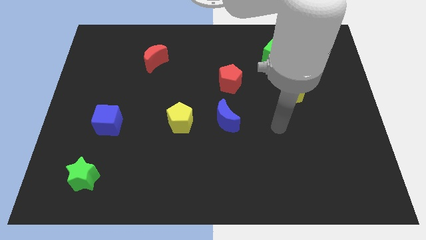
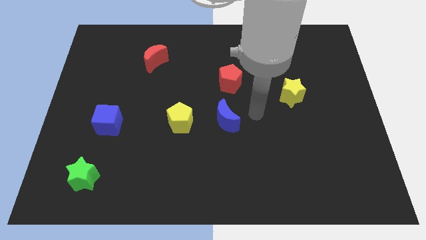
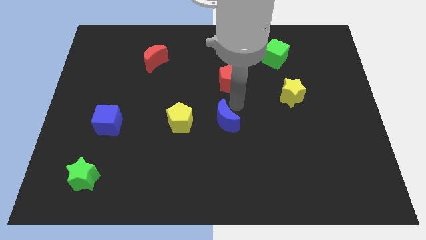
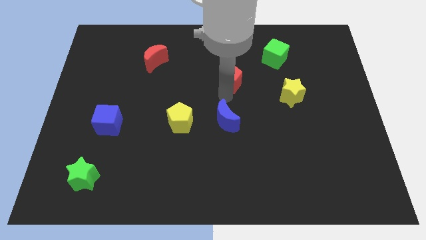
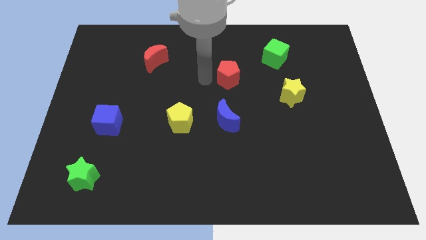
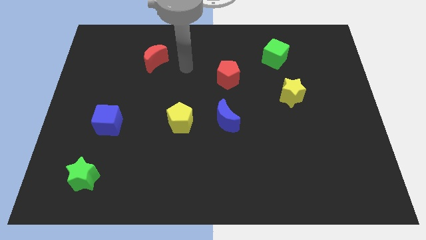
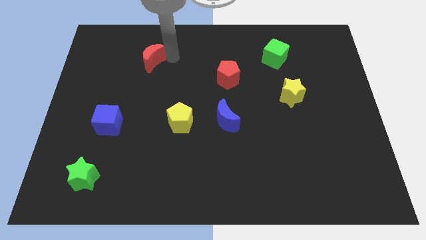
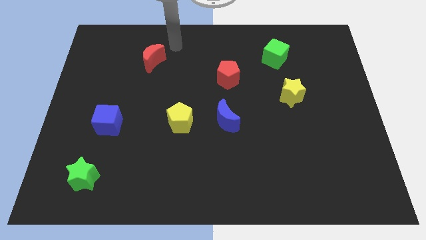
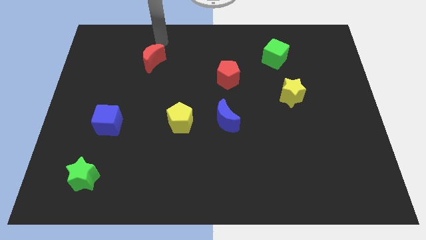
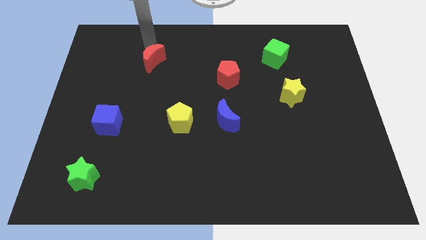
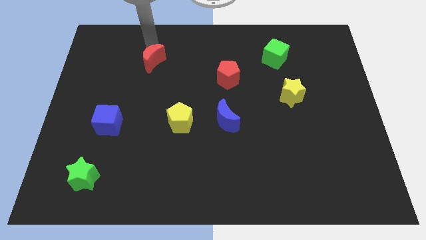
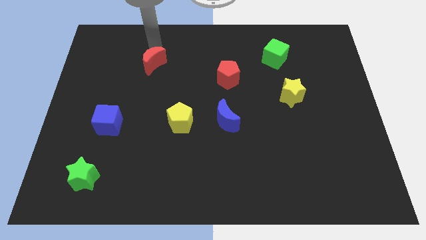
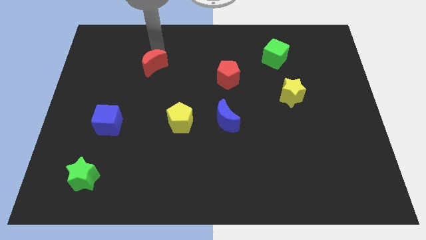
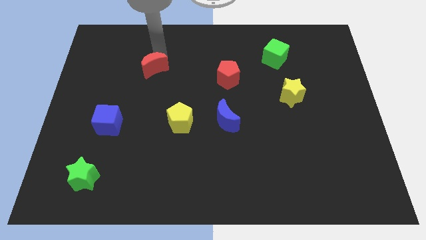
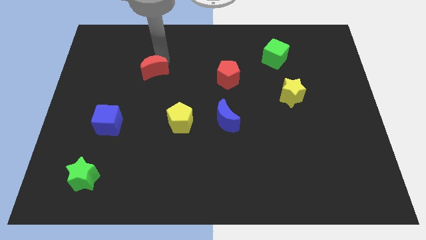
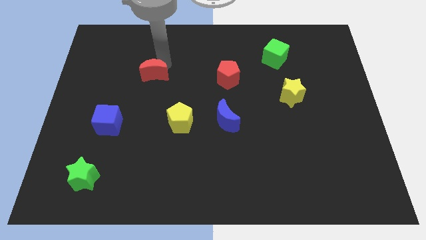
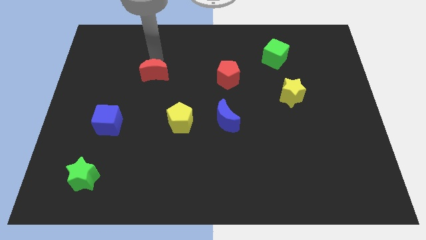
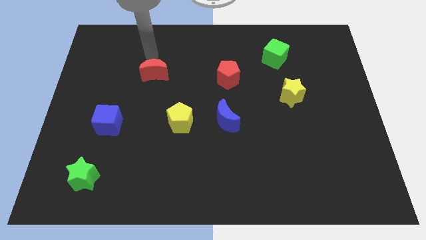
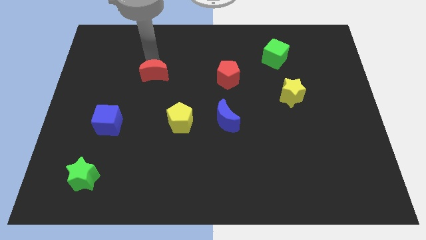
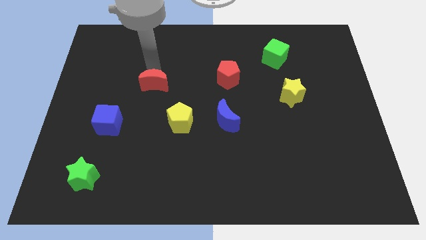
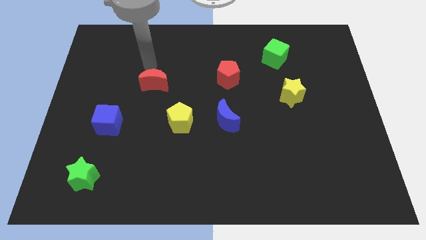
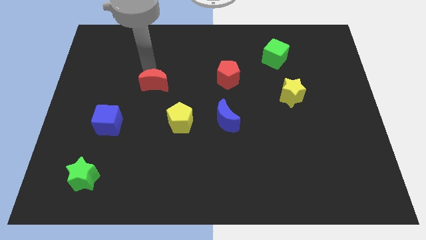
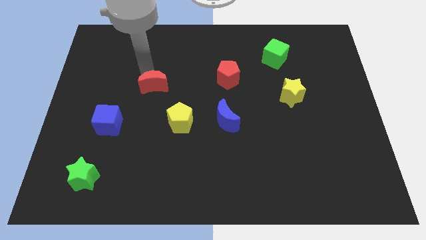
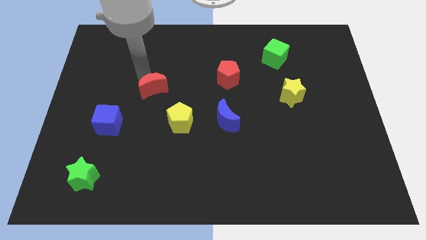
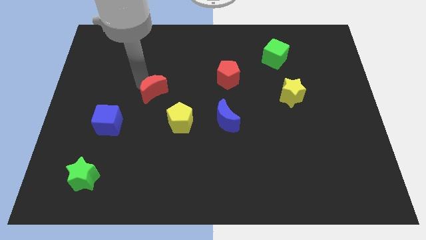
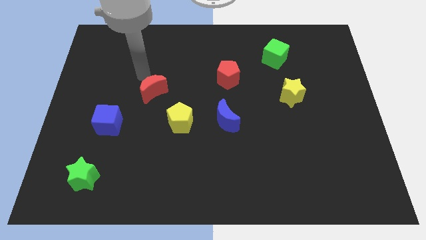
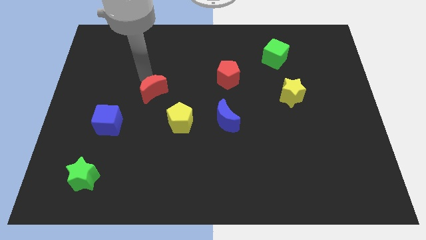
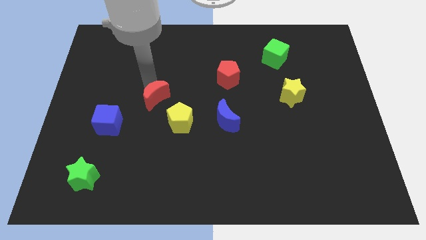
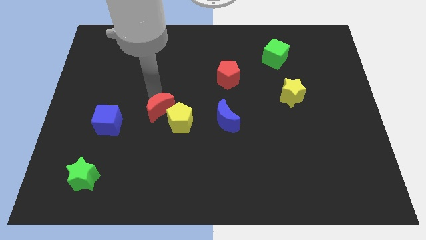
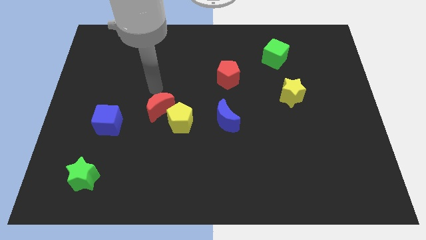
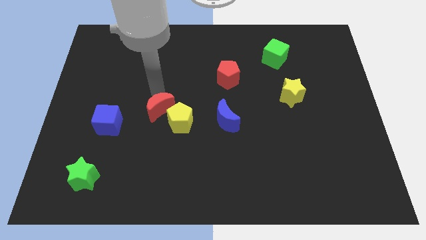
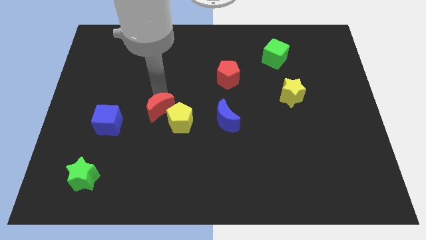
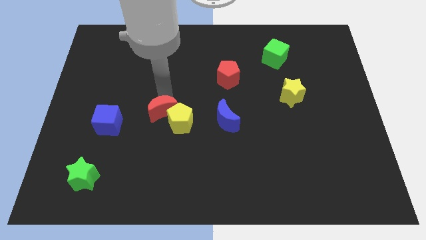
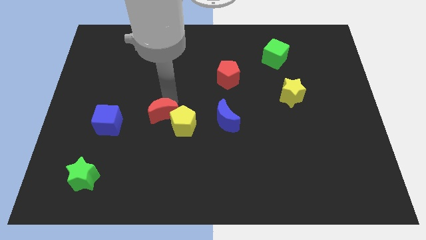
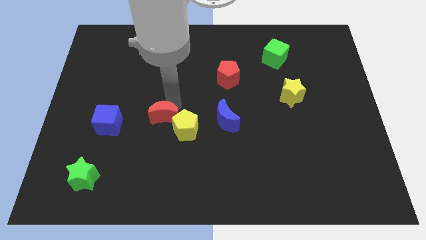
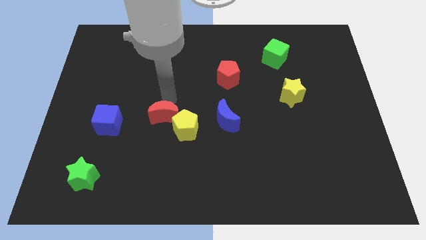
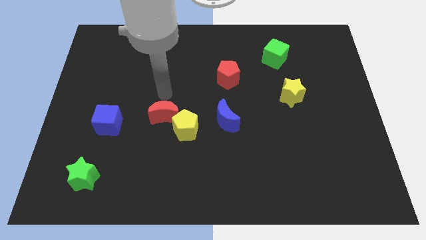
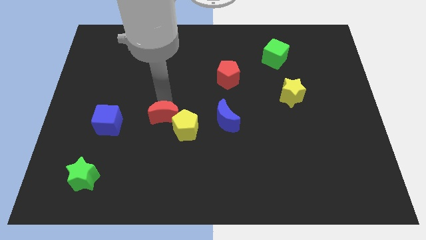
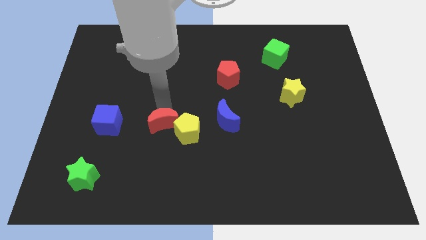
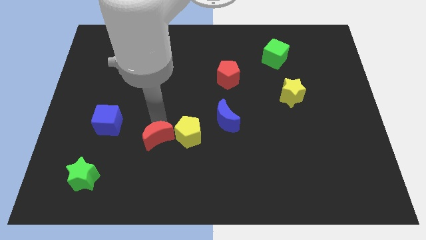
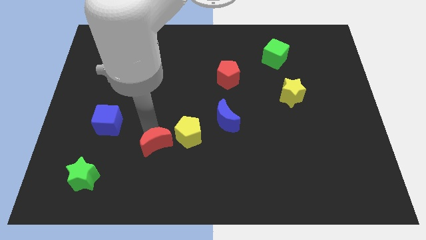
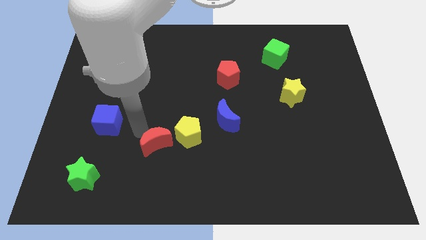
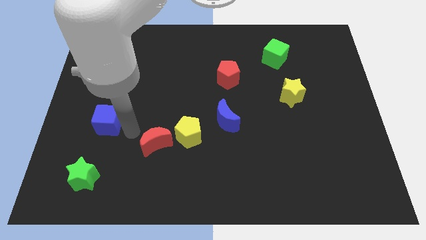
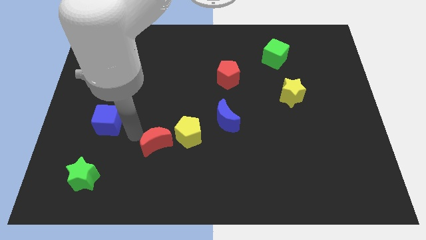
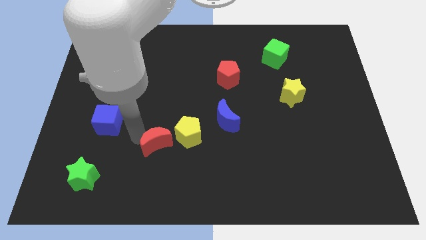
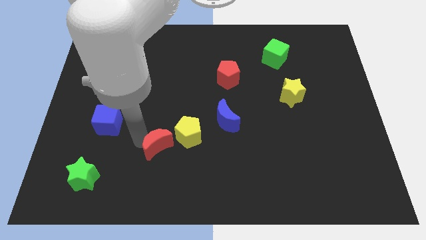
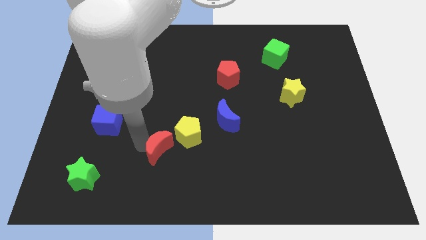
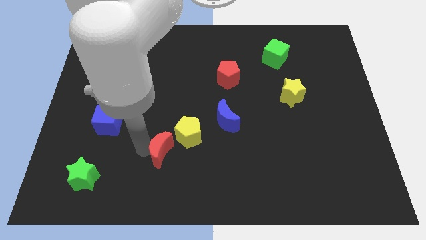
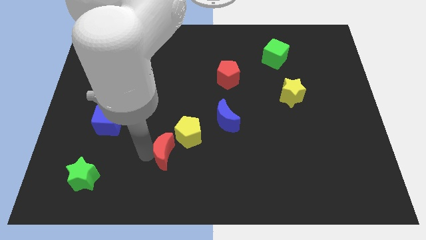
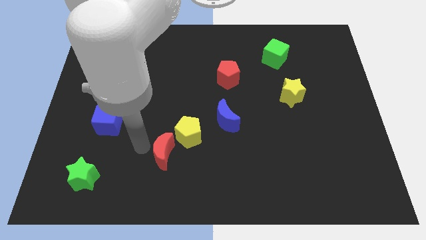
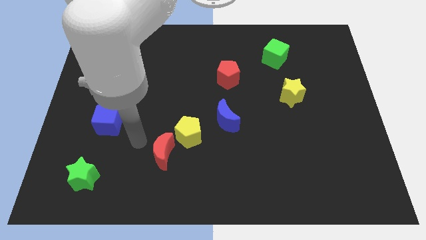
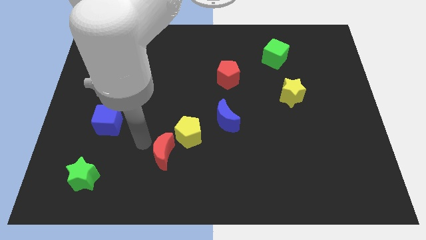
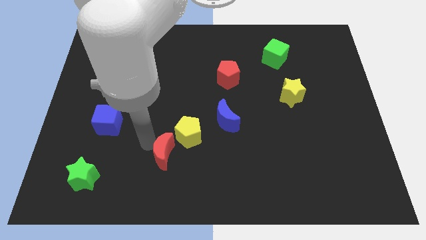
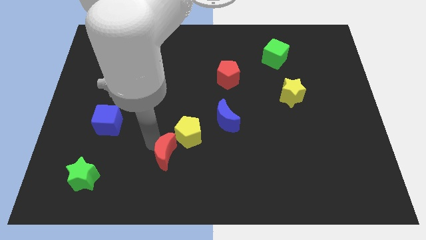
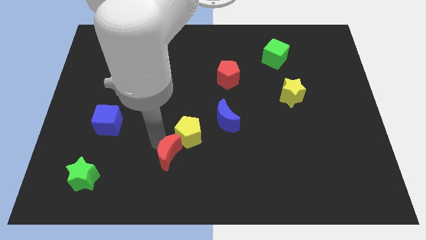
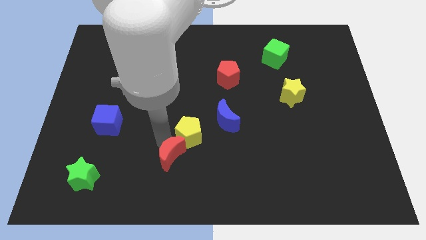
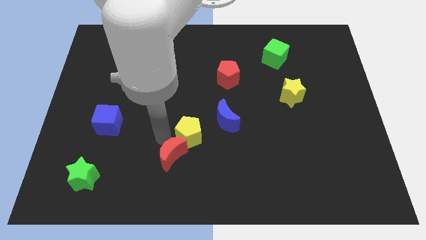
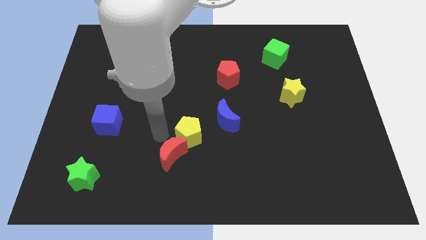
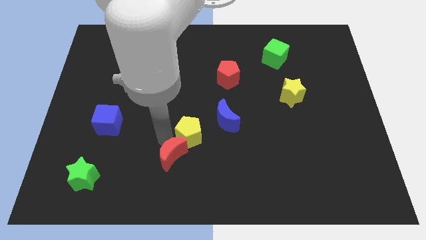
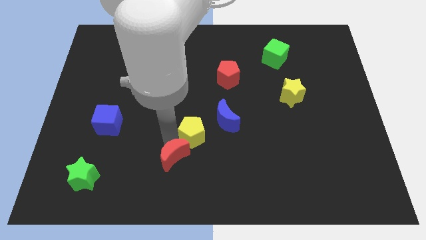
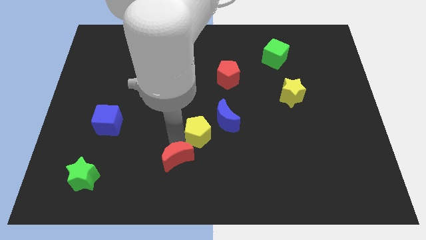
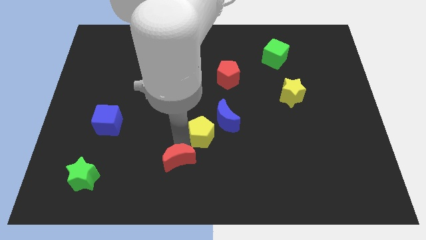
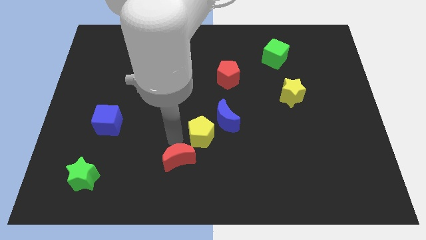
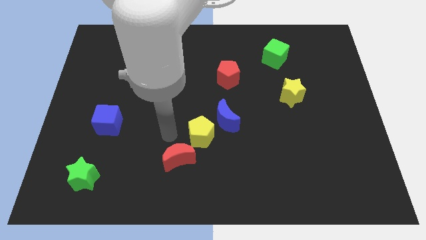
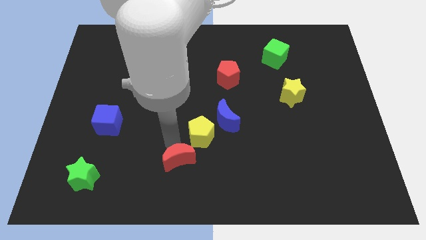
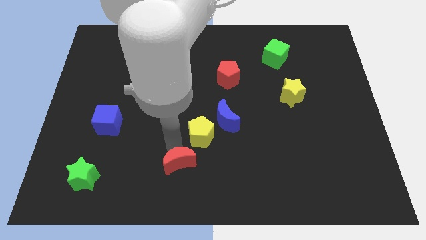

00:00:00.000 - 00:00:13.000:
move the red moon to the bottom side
